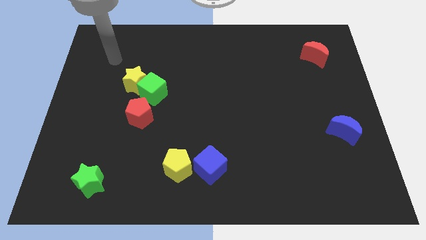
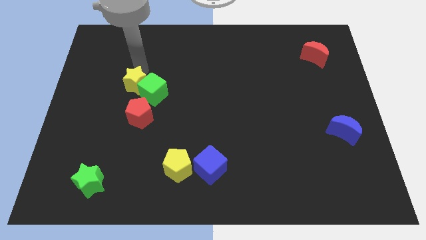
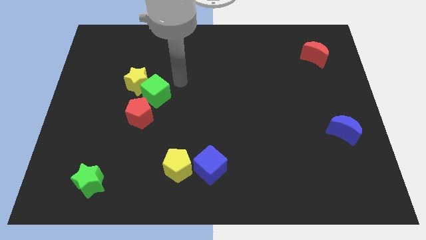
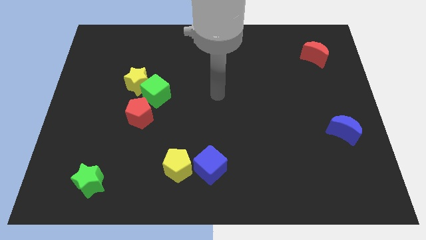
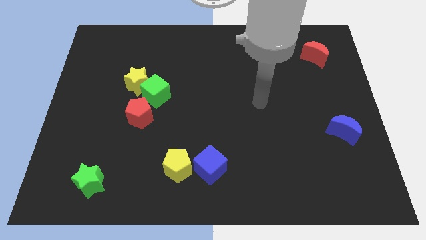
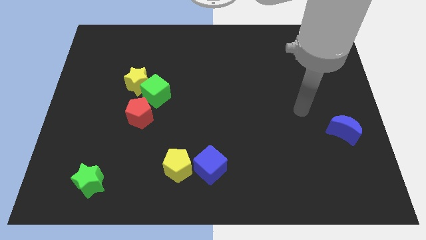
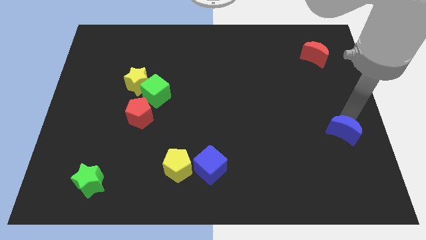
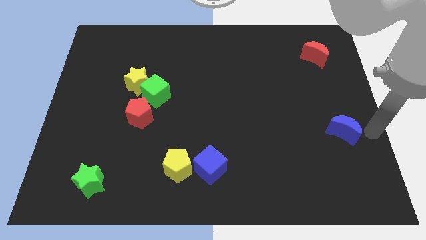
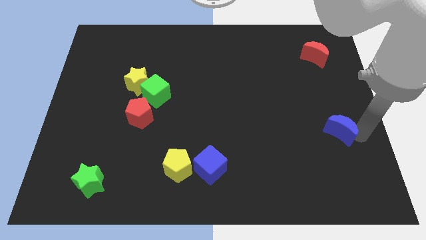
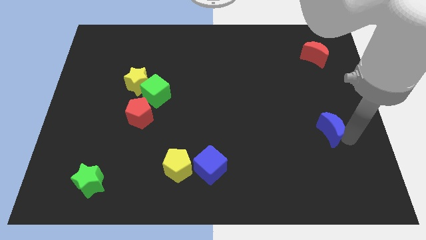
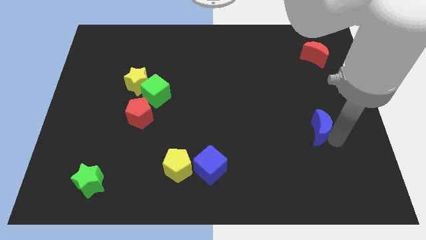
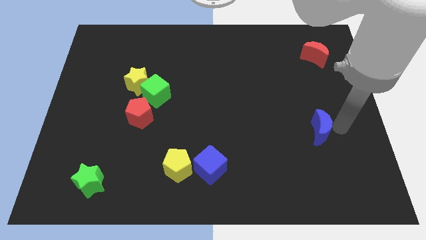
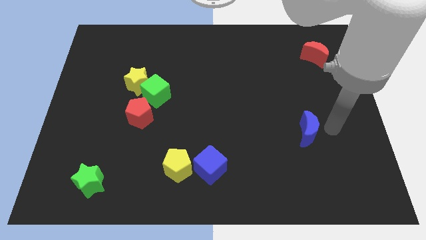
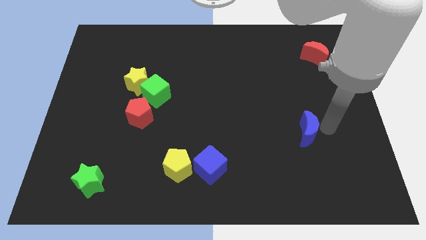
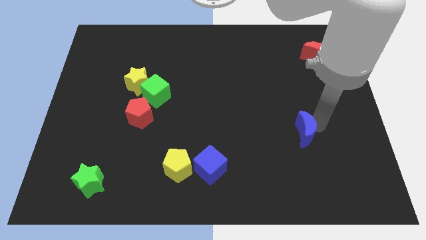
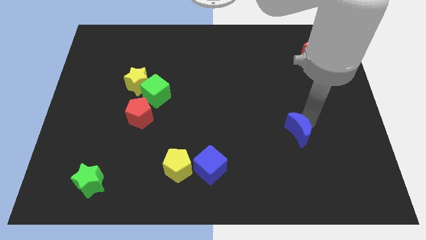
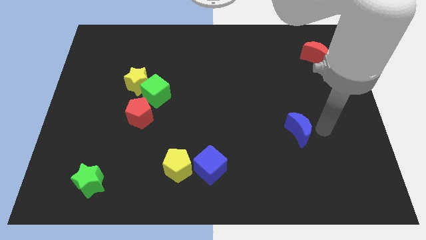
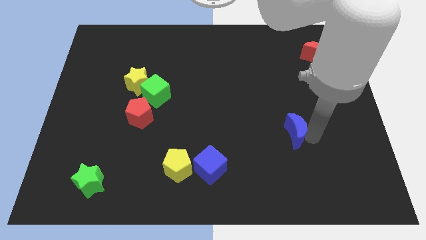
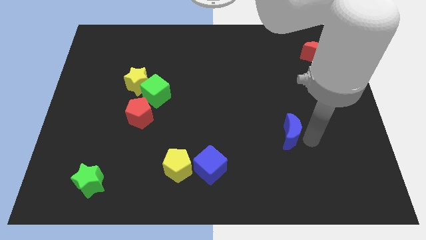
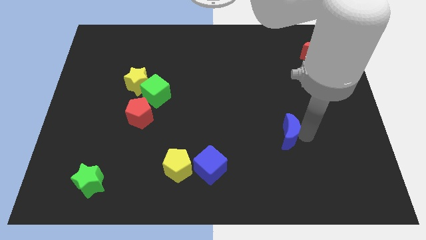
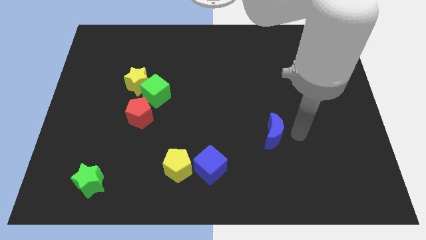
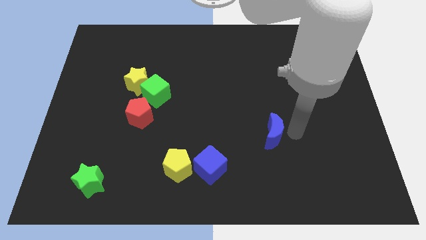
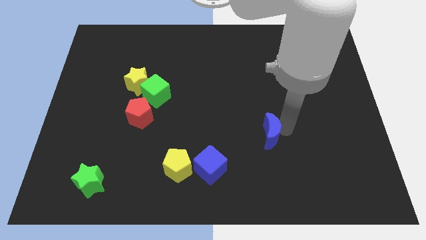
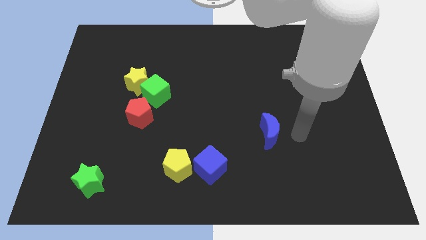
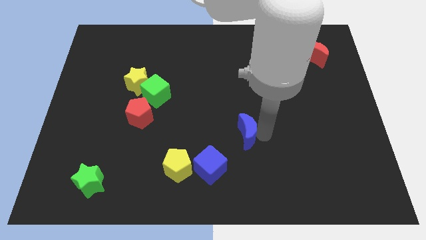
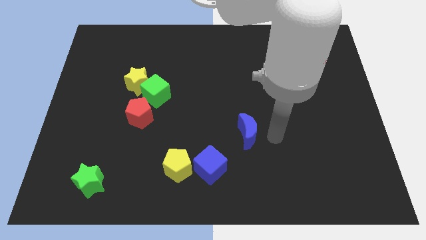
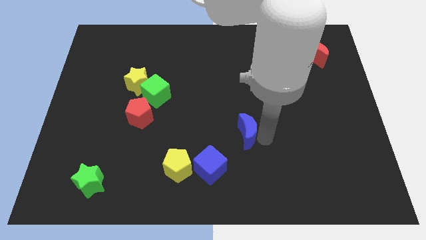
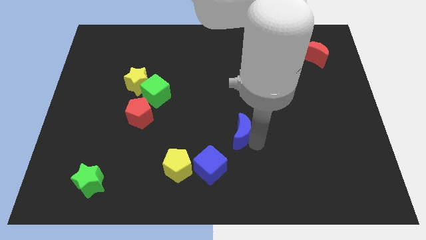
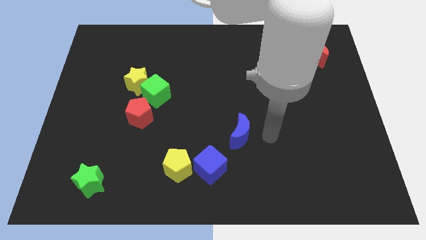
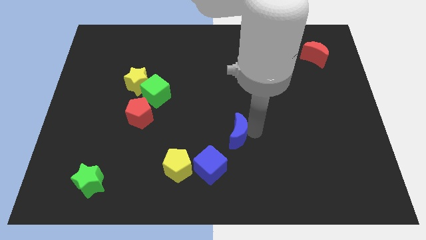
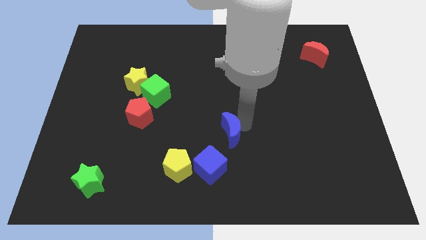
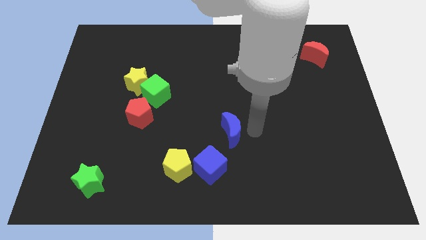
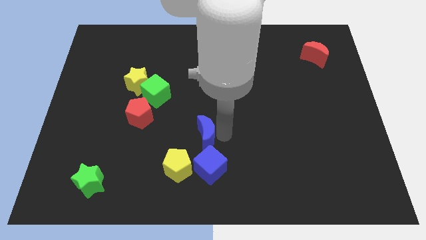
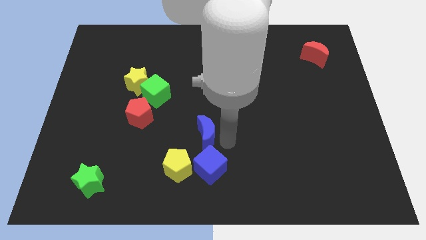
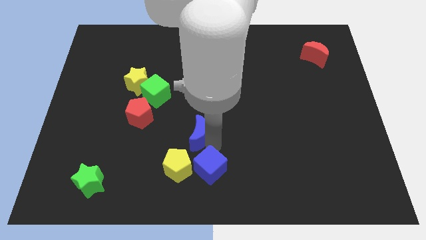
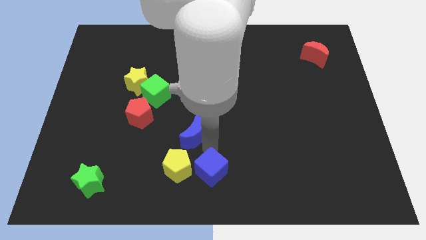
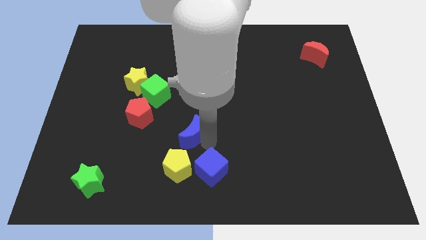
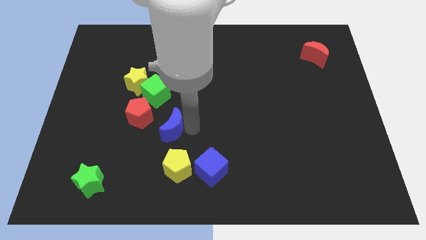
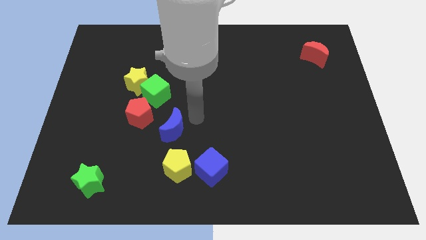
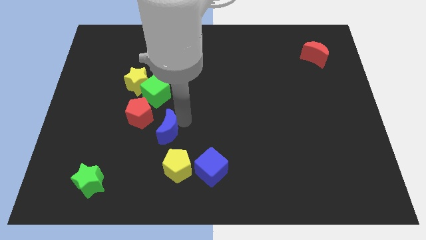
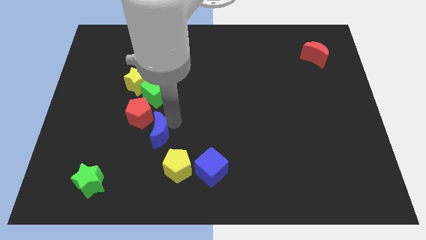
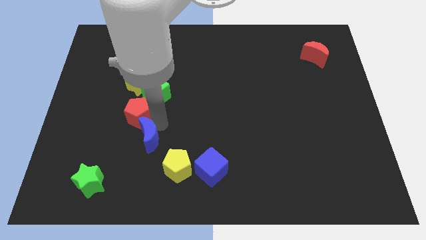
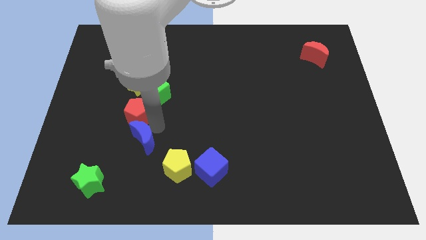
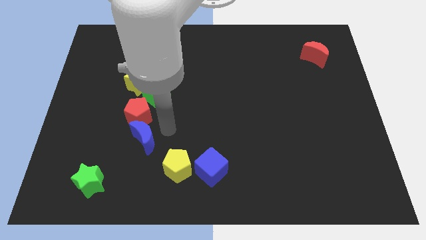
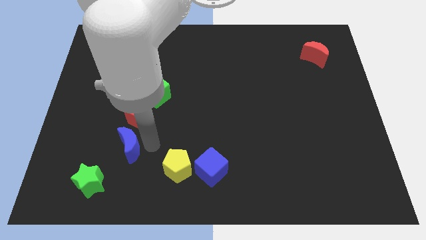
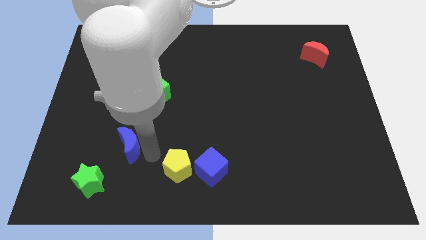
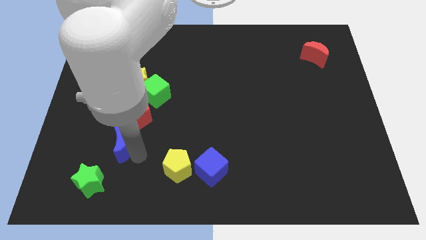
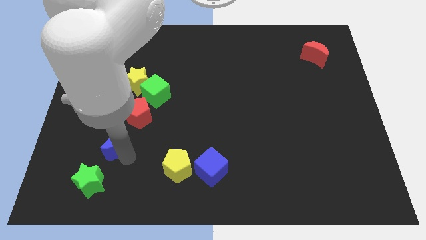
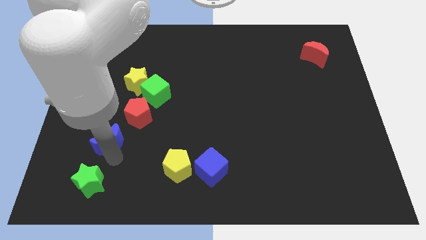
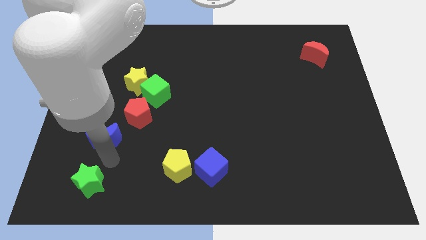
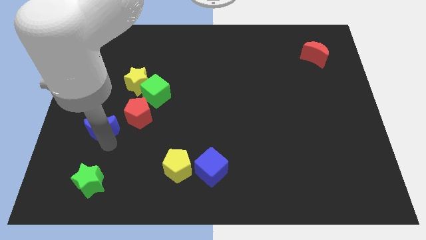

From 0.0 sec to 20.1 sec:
put the blue moon left of the red pentagon

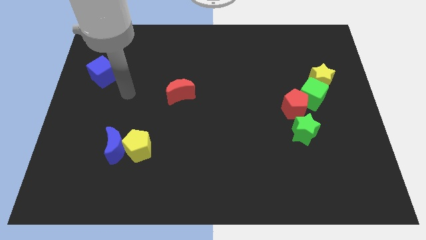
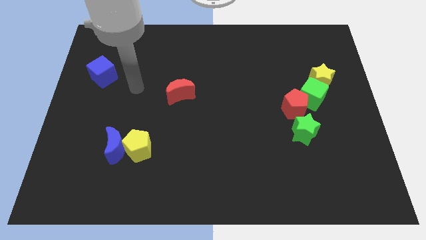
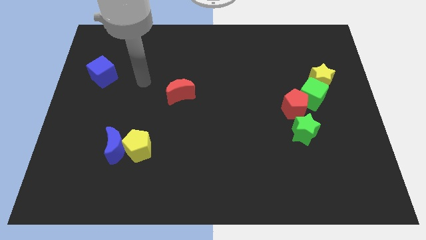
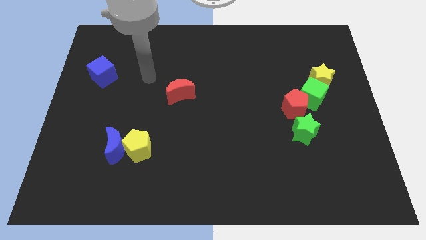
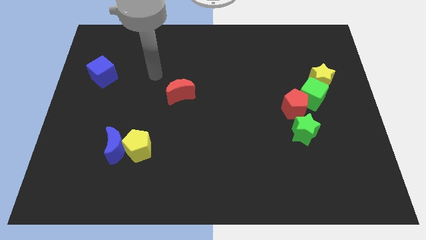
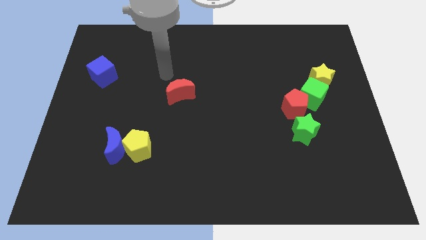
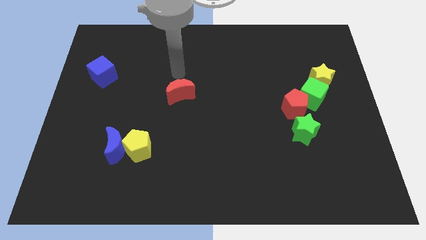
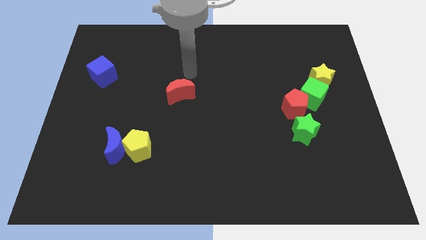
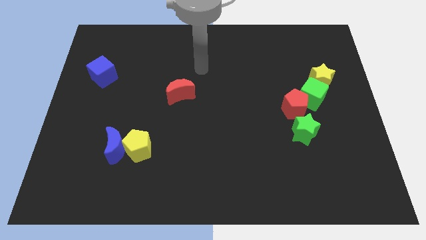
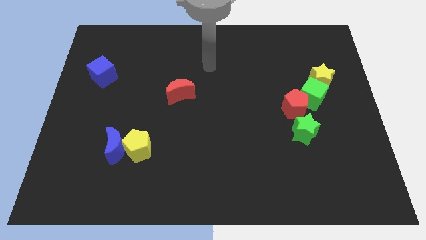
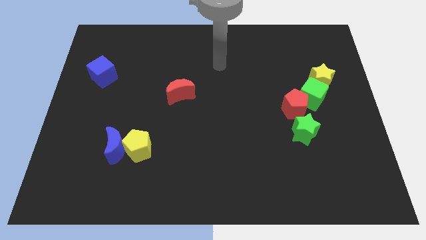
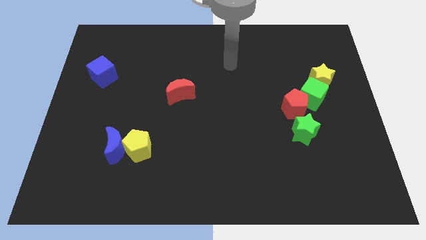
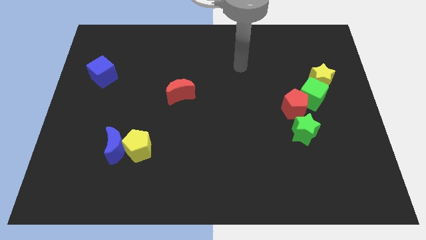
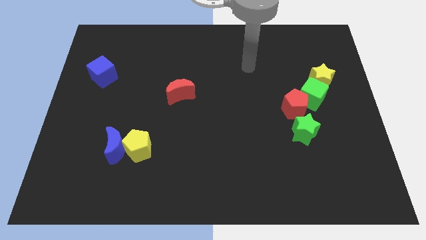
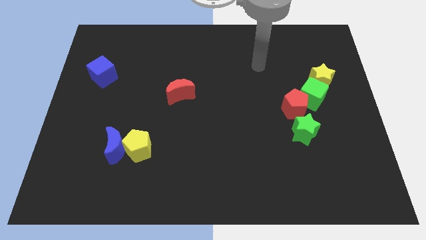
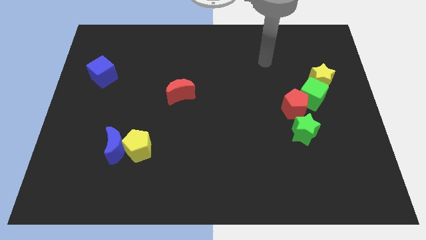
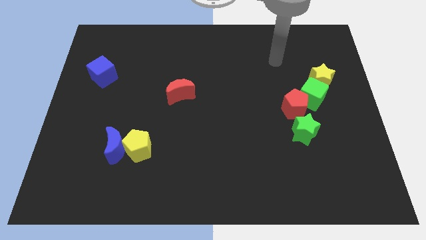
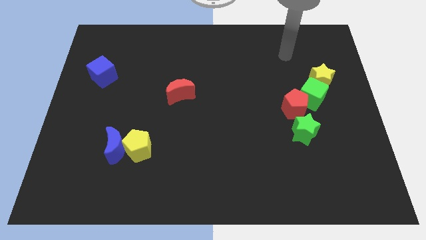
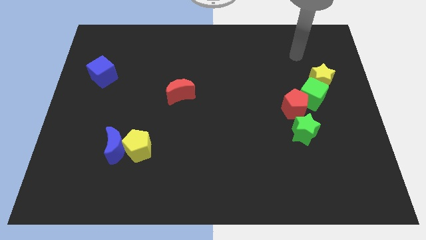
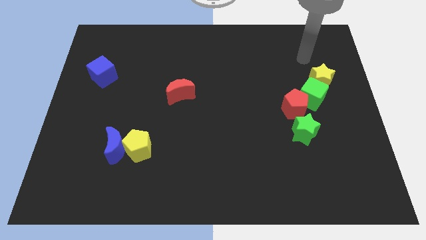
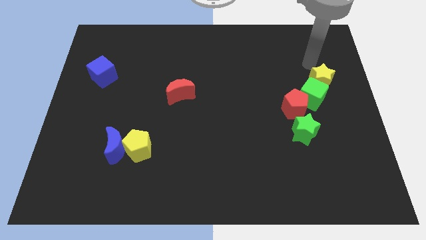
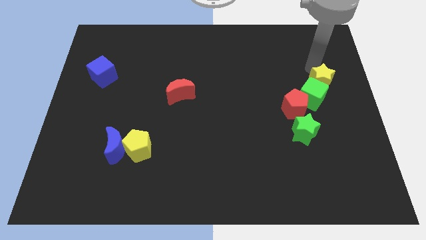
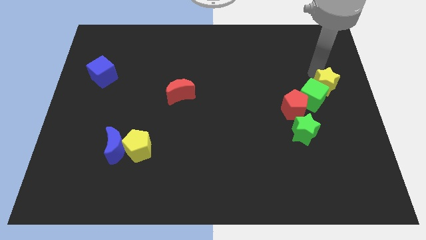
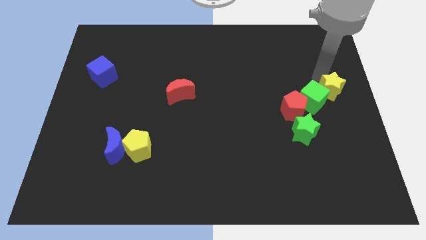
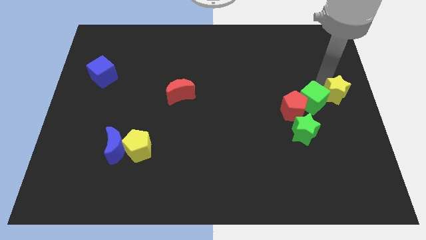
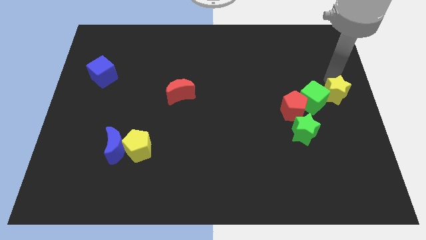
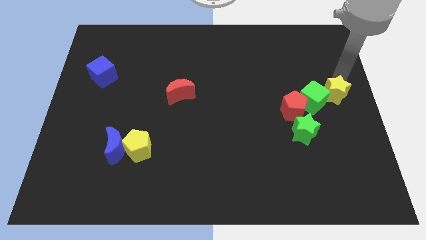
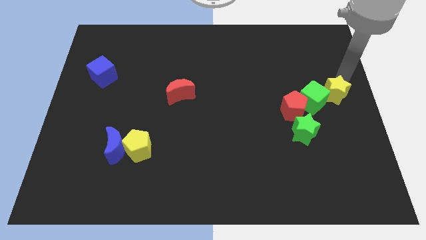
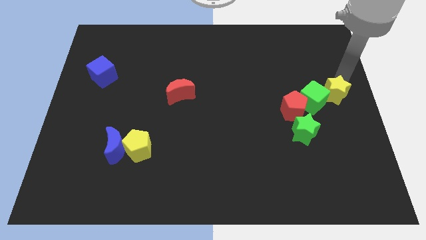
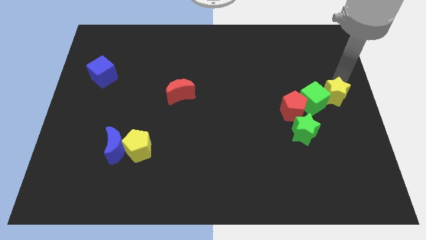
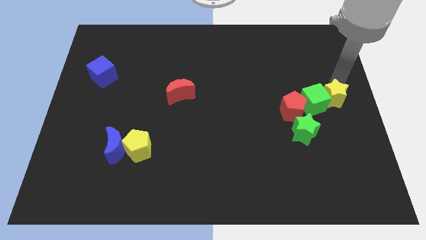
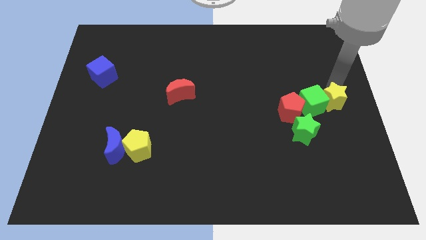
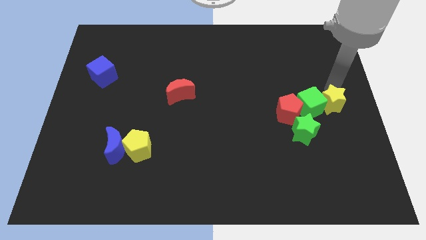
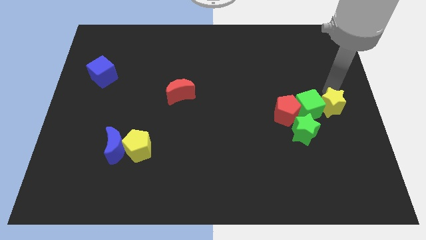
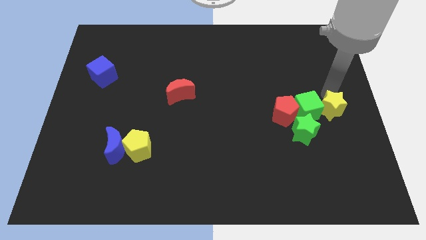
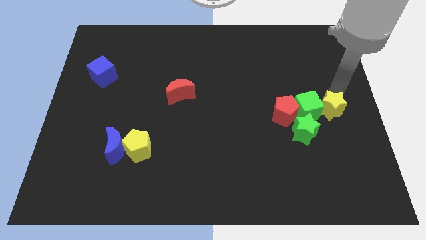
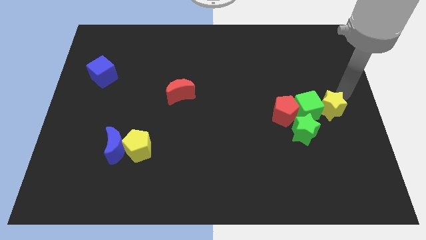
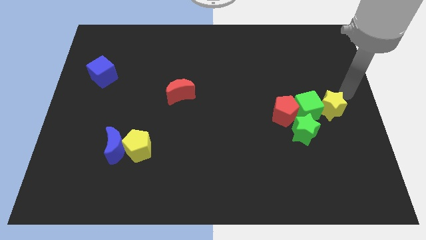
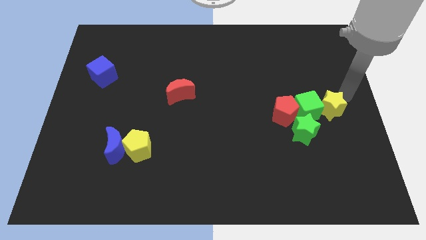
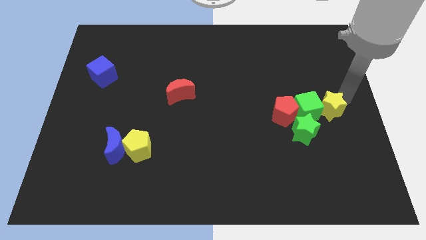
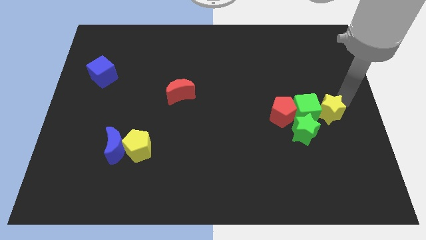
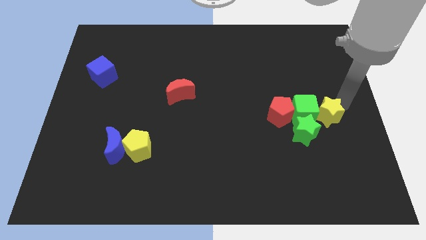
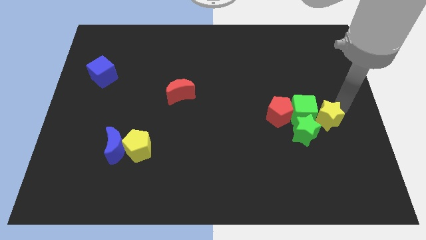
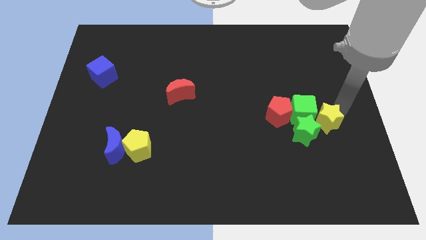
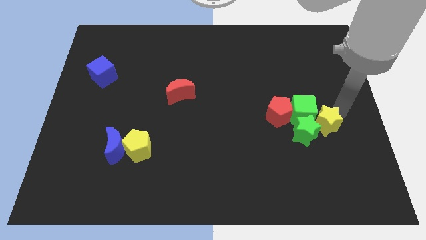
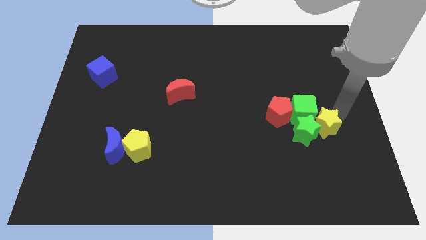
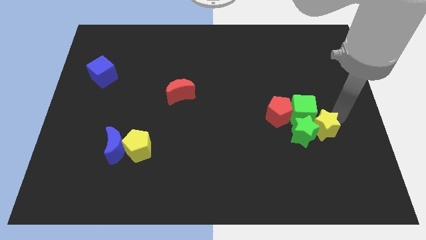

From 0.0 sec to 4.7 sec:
put the yellow star to the bottom right of the red pentagon
